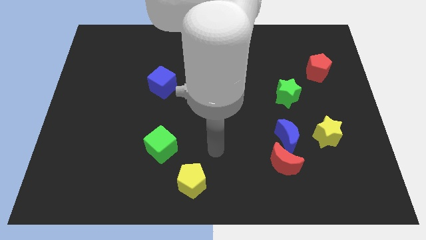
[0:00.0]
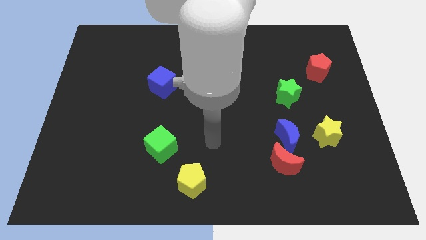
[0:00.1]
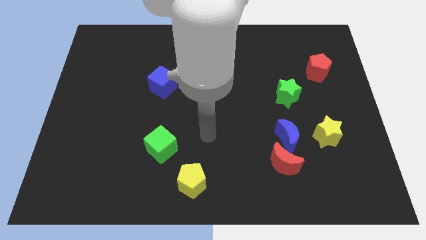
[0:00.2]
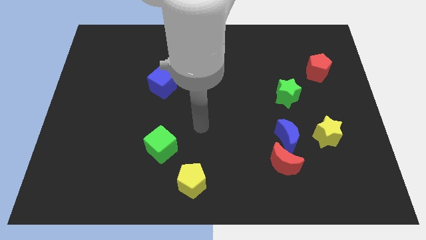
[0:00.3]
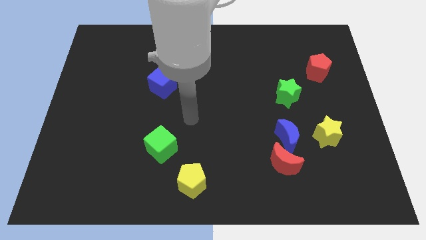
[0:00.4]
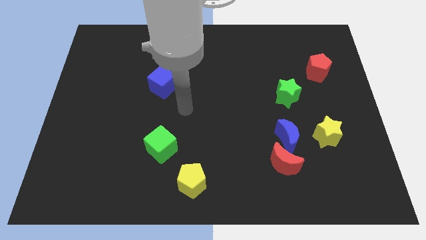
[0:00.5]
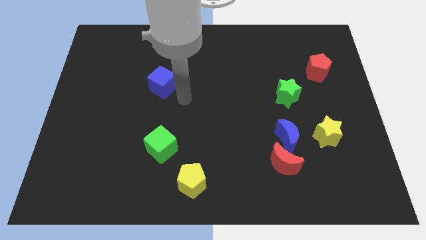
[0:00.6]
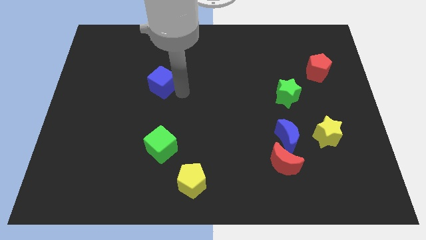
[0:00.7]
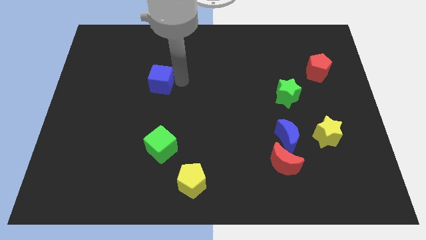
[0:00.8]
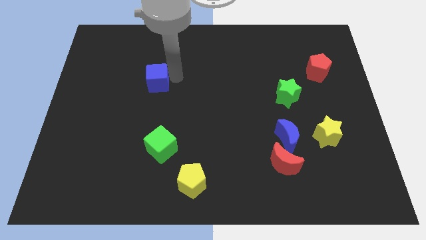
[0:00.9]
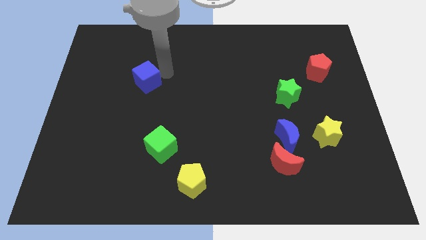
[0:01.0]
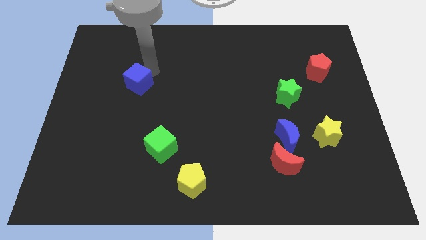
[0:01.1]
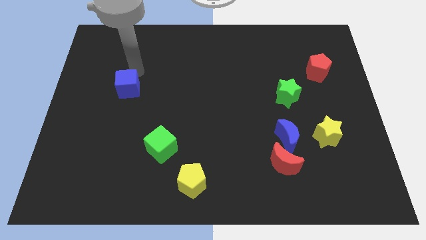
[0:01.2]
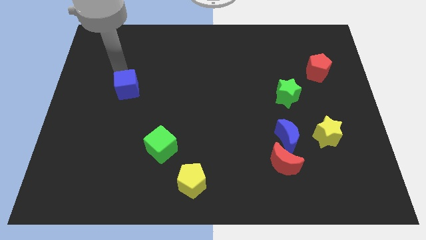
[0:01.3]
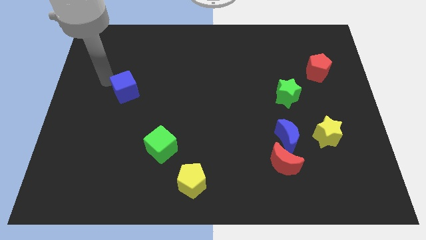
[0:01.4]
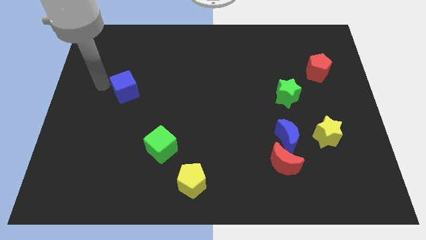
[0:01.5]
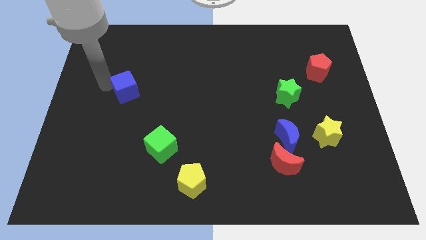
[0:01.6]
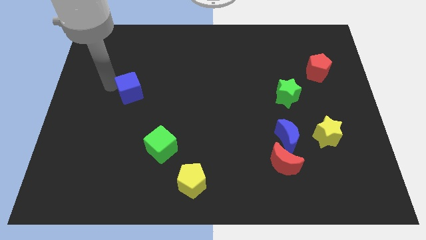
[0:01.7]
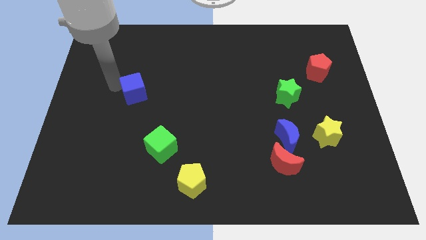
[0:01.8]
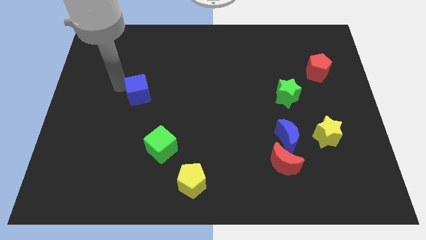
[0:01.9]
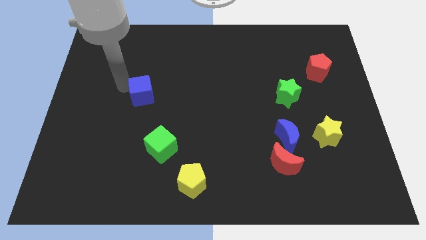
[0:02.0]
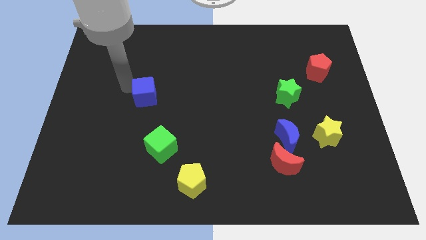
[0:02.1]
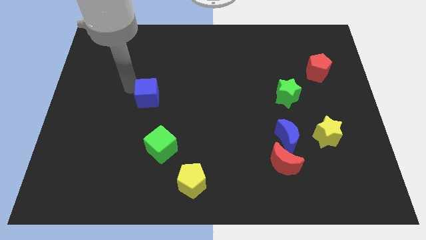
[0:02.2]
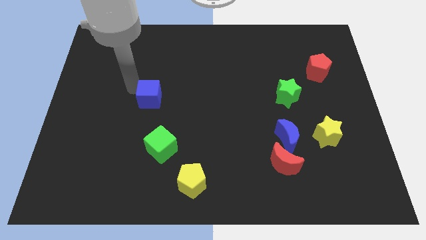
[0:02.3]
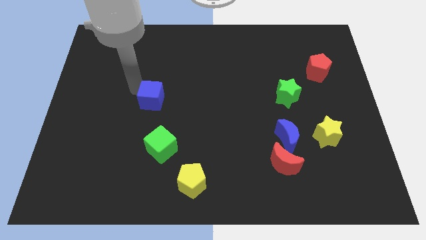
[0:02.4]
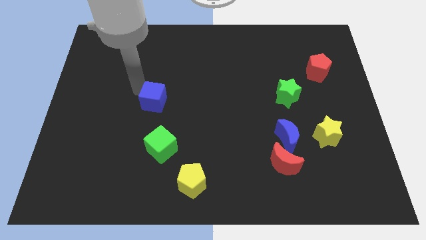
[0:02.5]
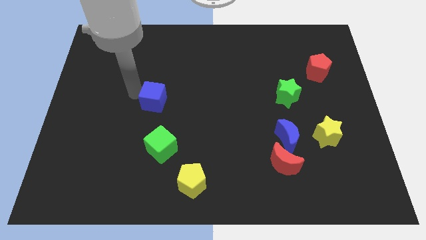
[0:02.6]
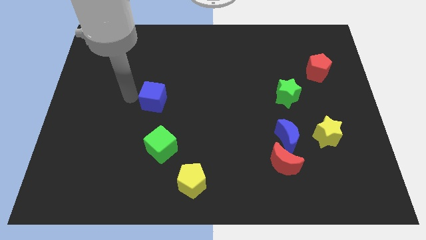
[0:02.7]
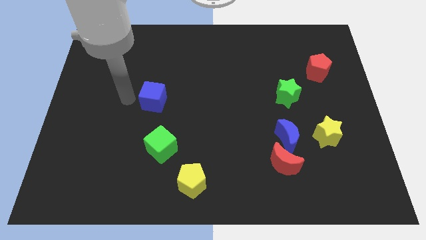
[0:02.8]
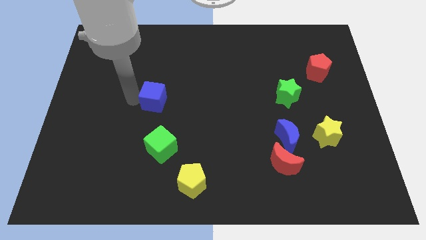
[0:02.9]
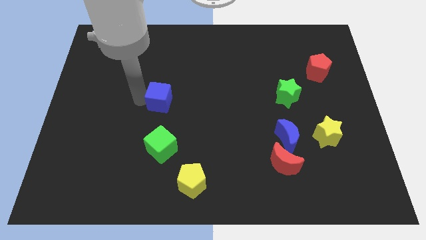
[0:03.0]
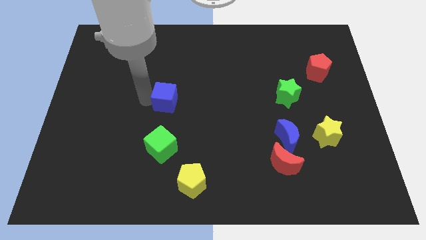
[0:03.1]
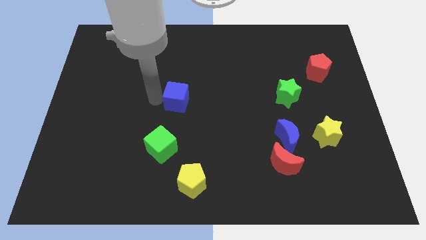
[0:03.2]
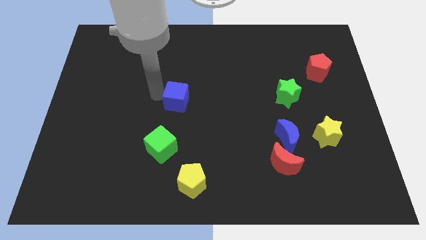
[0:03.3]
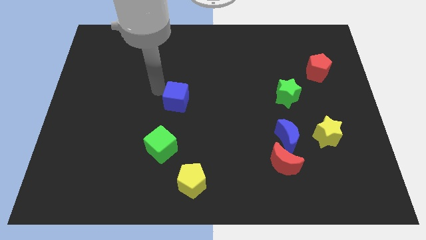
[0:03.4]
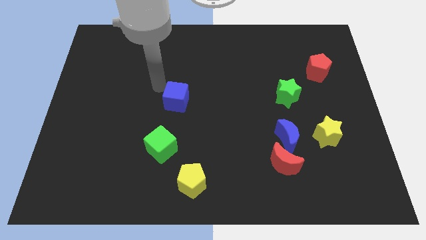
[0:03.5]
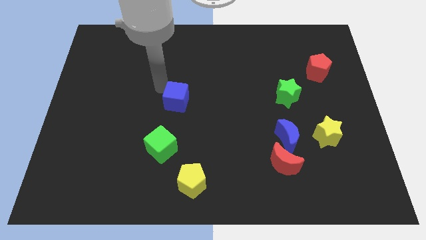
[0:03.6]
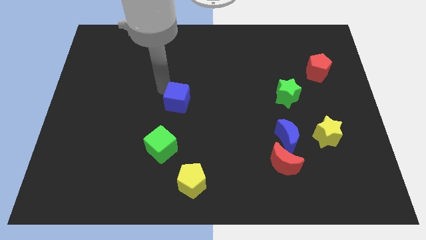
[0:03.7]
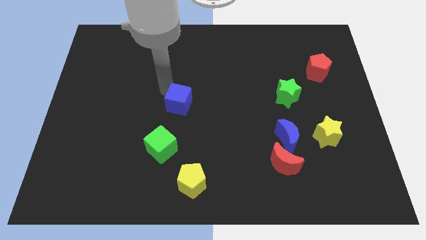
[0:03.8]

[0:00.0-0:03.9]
push the blue cube slightly diagonally down and to the right

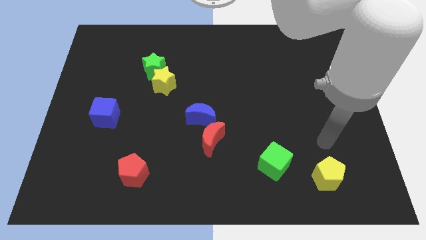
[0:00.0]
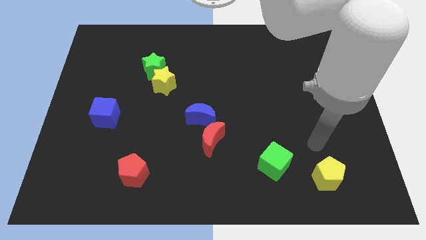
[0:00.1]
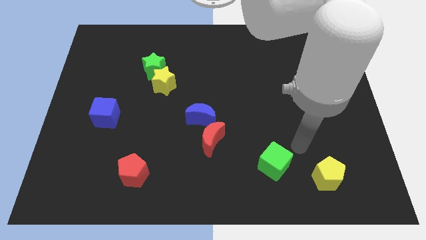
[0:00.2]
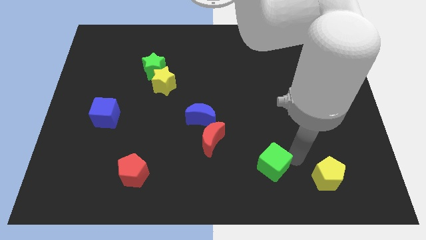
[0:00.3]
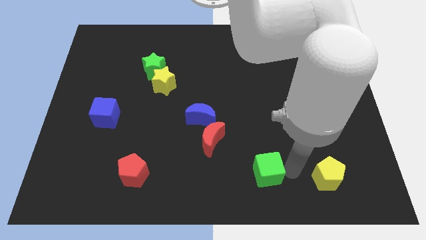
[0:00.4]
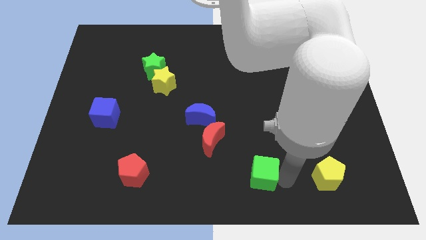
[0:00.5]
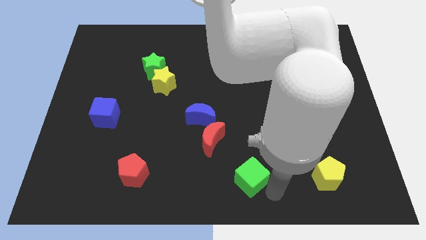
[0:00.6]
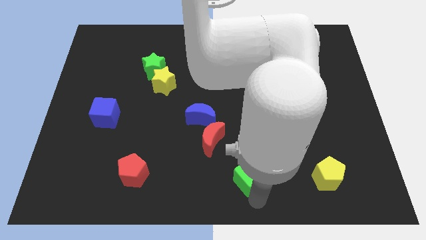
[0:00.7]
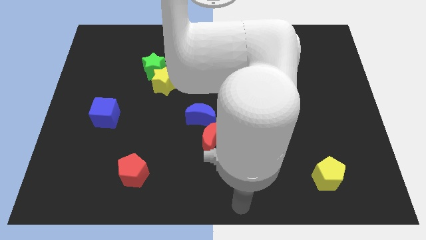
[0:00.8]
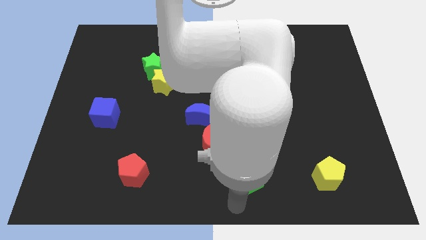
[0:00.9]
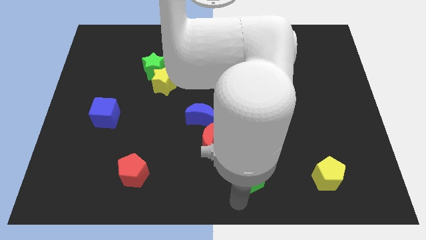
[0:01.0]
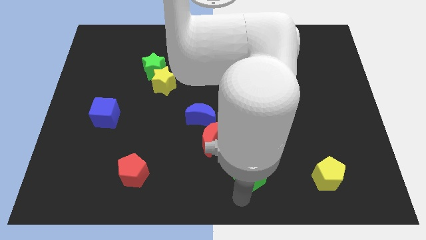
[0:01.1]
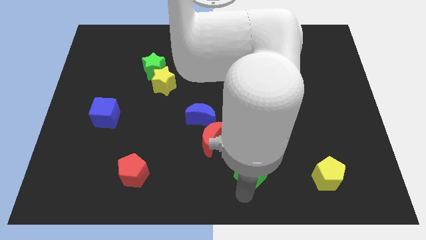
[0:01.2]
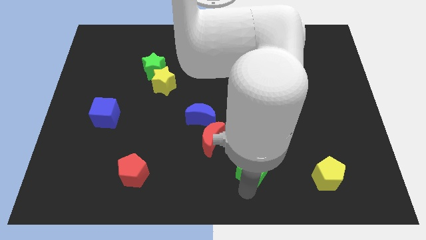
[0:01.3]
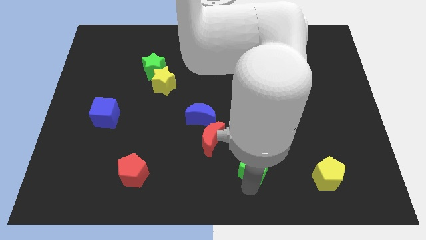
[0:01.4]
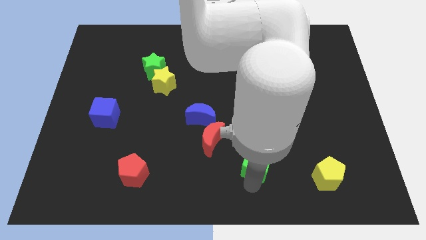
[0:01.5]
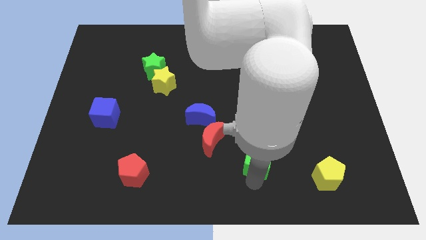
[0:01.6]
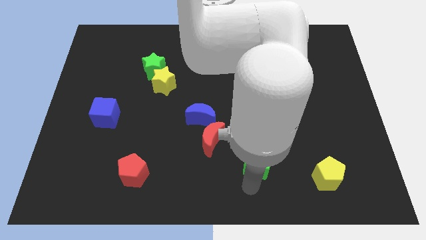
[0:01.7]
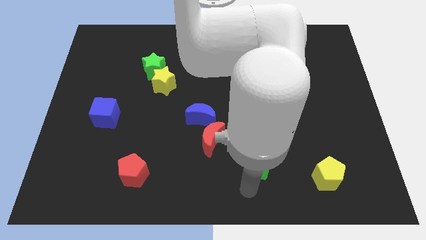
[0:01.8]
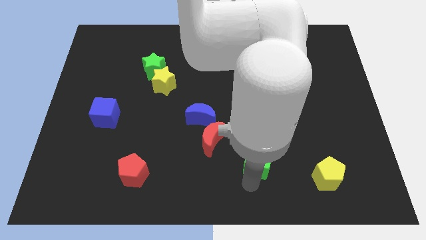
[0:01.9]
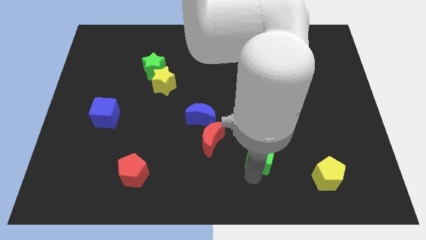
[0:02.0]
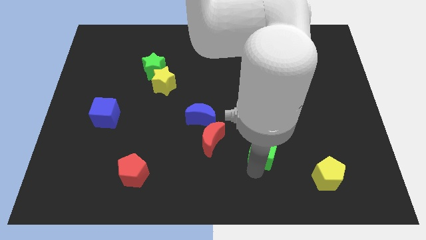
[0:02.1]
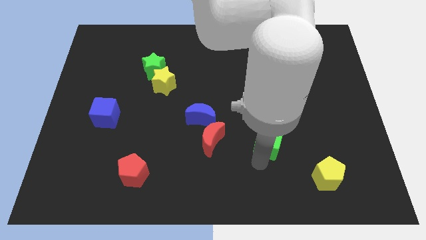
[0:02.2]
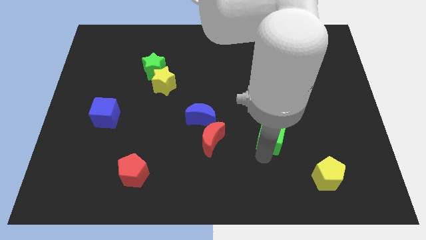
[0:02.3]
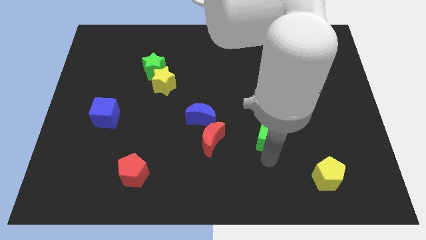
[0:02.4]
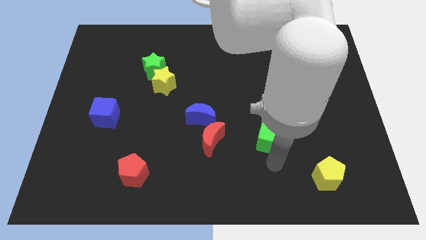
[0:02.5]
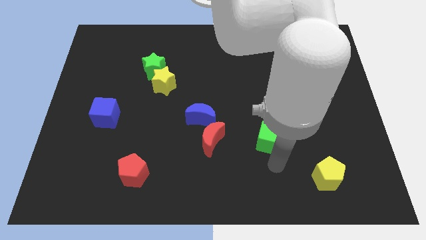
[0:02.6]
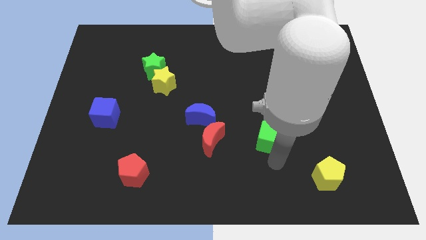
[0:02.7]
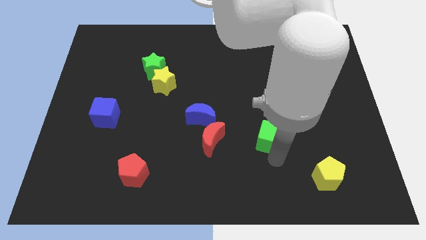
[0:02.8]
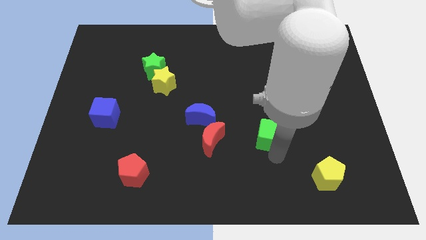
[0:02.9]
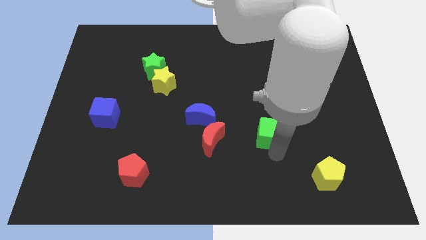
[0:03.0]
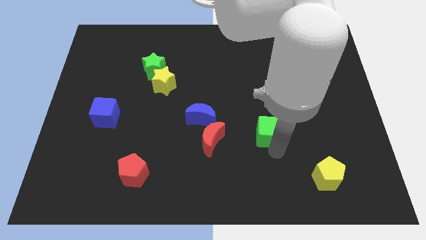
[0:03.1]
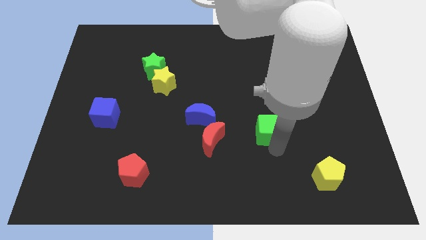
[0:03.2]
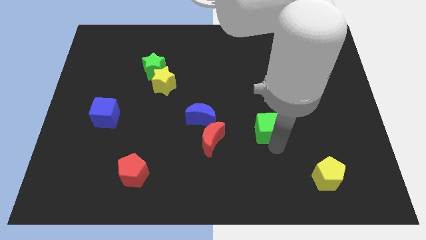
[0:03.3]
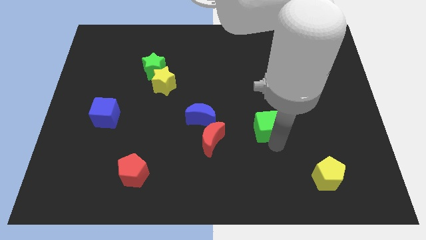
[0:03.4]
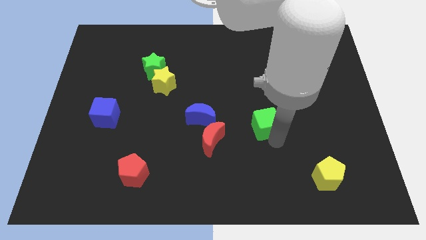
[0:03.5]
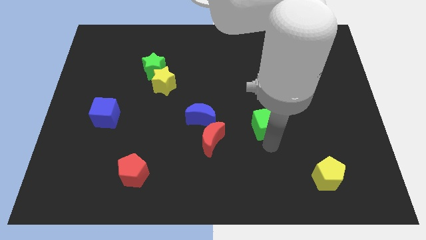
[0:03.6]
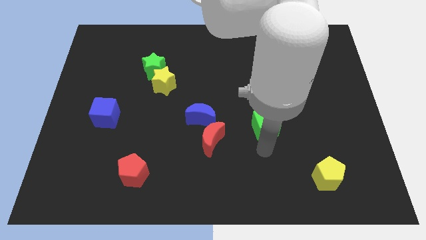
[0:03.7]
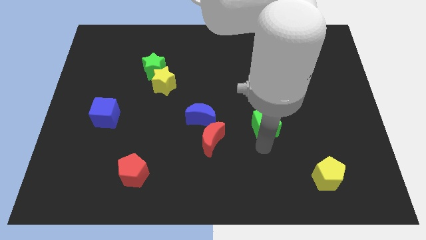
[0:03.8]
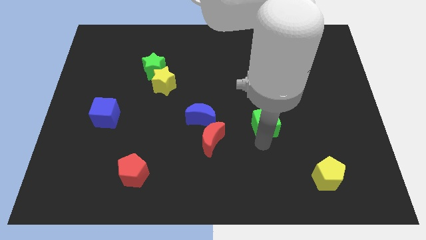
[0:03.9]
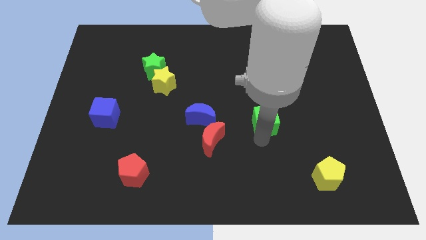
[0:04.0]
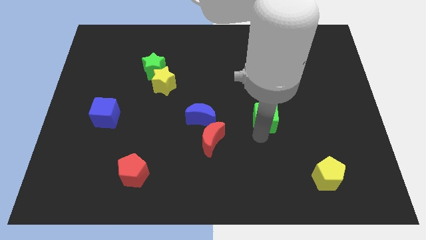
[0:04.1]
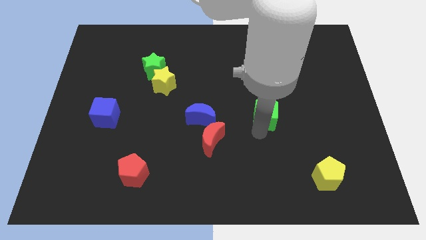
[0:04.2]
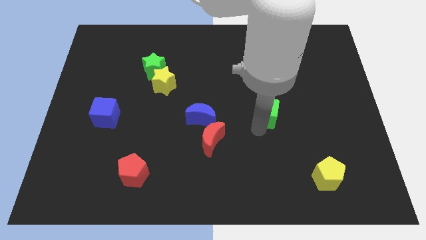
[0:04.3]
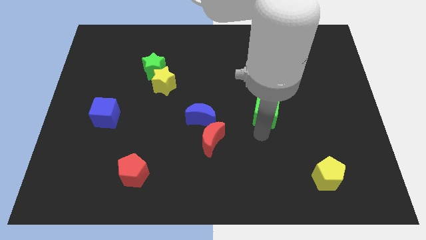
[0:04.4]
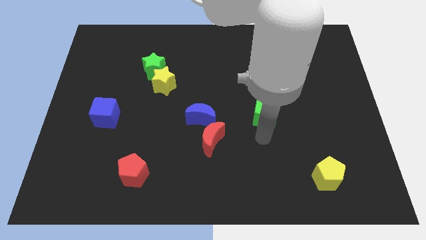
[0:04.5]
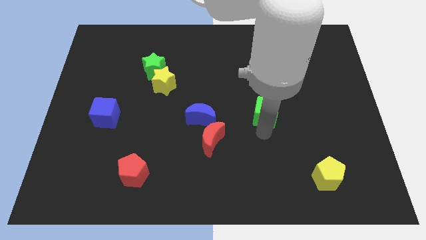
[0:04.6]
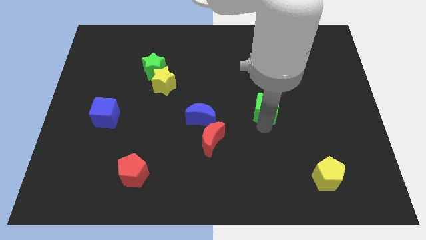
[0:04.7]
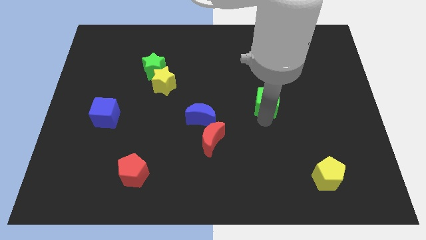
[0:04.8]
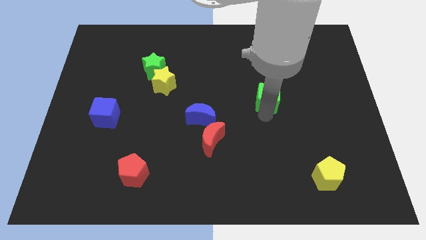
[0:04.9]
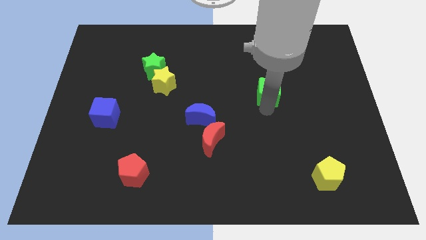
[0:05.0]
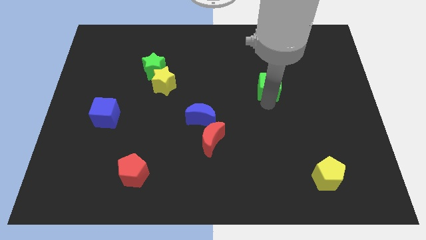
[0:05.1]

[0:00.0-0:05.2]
push the green cube up
